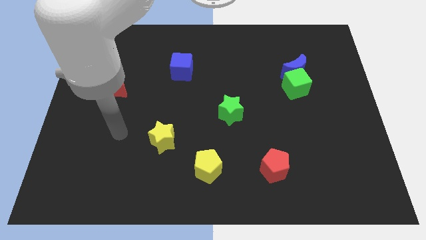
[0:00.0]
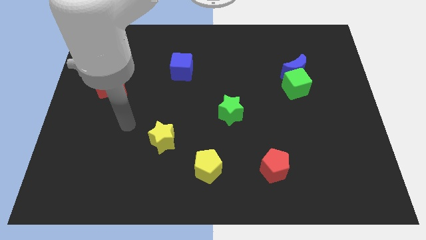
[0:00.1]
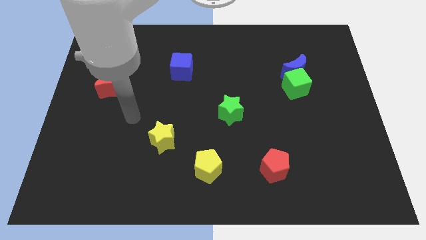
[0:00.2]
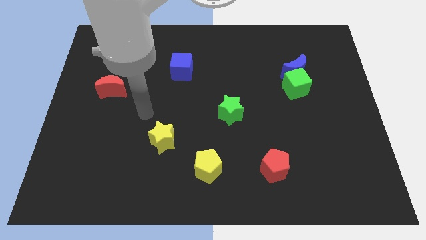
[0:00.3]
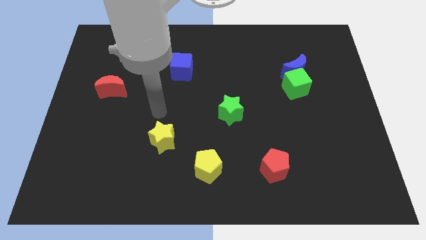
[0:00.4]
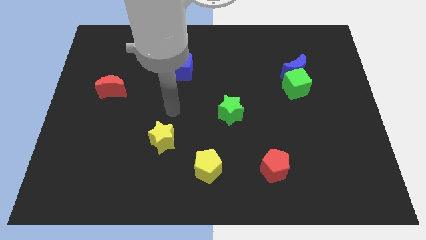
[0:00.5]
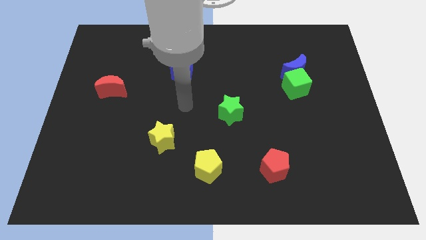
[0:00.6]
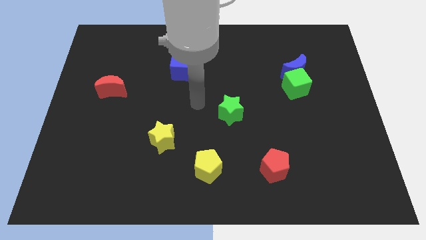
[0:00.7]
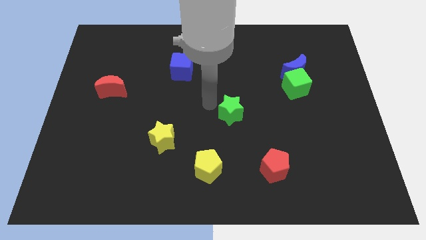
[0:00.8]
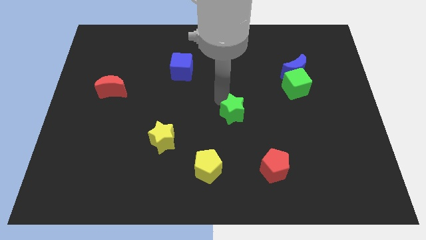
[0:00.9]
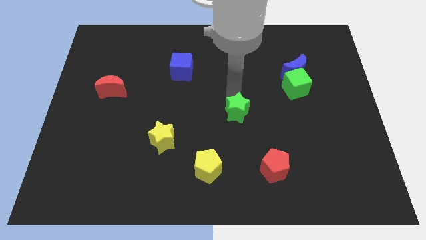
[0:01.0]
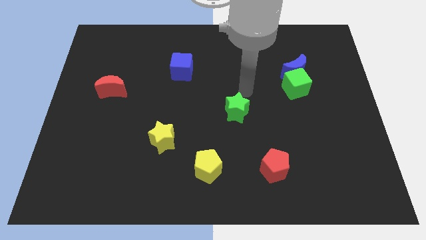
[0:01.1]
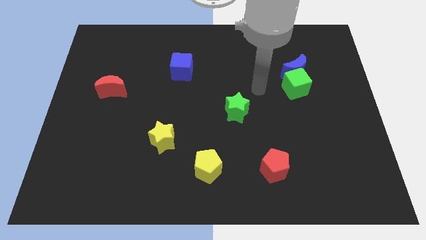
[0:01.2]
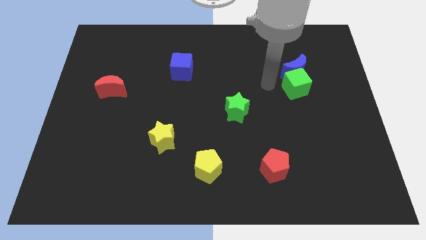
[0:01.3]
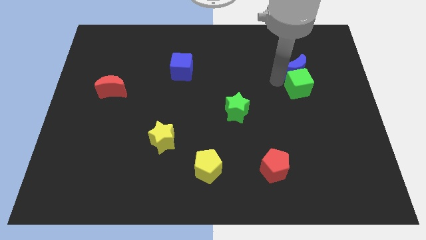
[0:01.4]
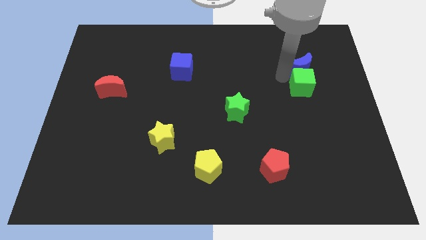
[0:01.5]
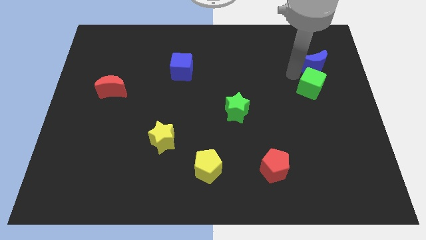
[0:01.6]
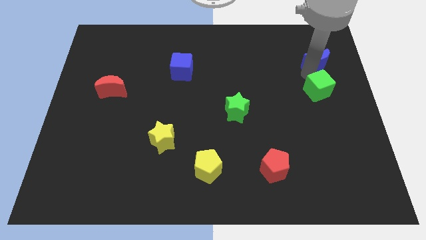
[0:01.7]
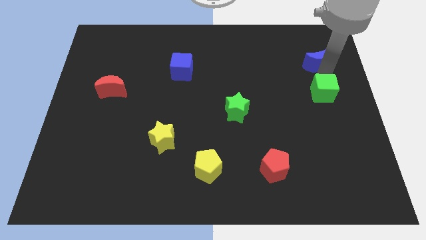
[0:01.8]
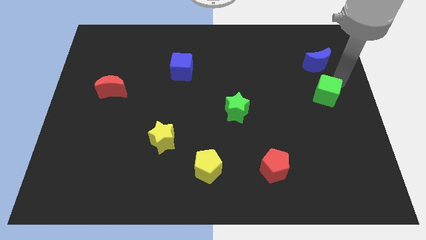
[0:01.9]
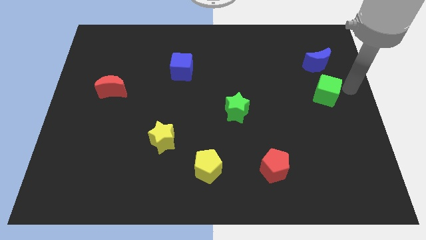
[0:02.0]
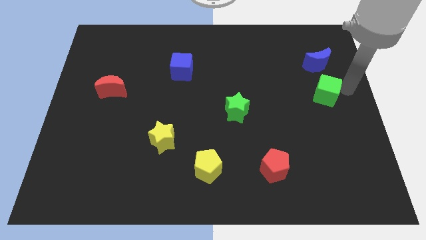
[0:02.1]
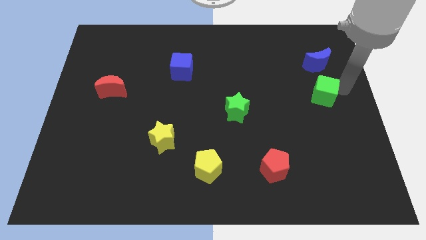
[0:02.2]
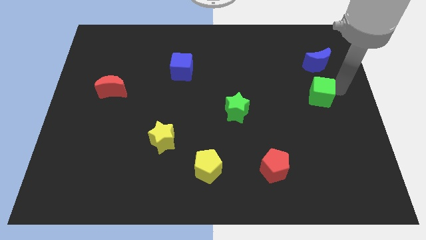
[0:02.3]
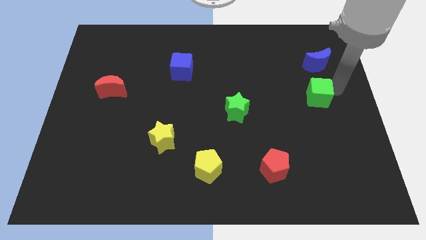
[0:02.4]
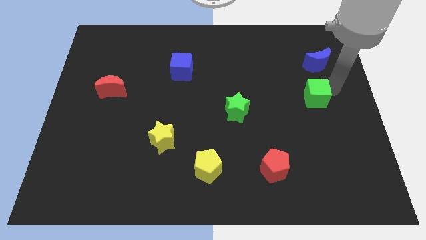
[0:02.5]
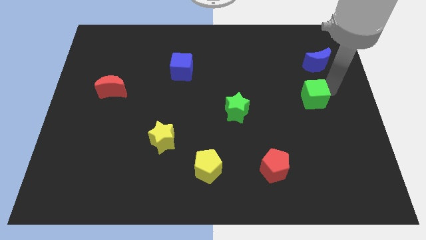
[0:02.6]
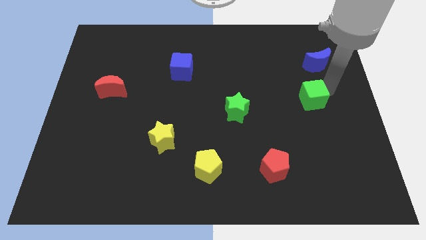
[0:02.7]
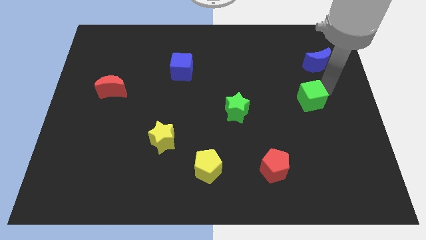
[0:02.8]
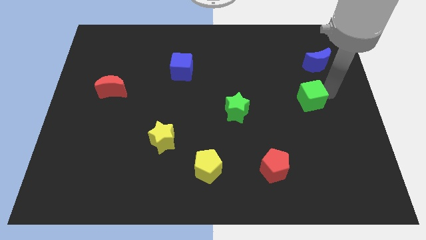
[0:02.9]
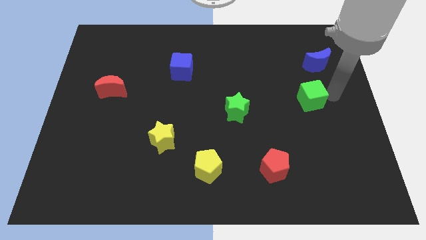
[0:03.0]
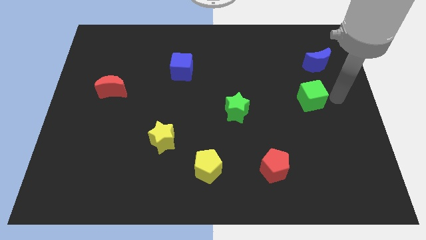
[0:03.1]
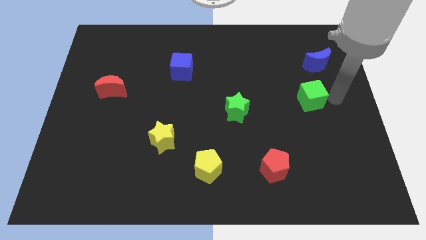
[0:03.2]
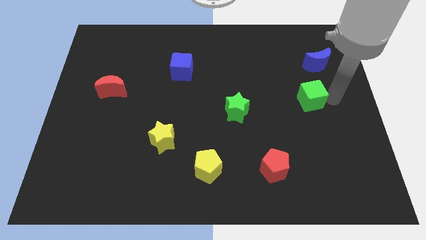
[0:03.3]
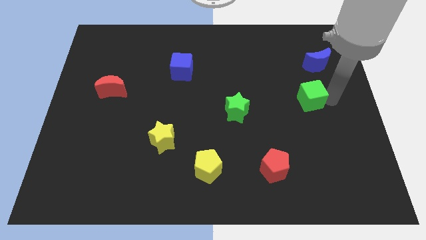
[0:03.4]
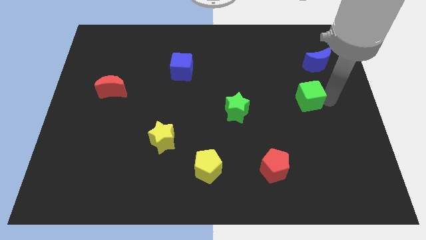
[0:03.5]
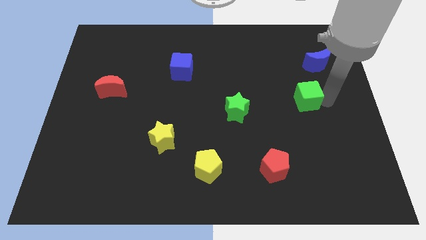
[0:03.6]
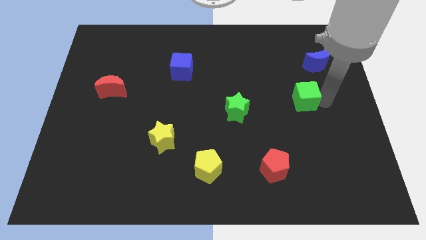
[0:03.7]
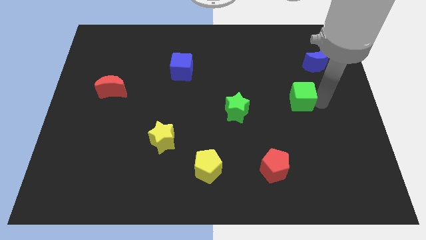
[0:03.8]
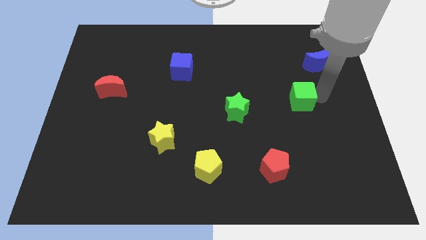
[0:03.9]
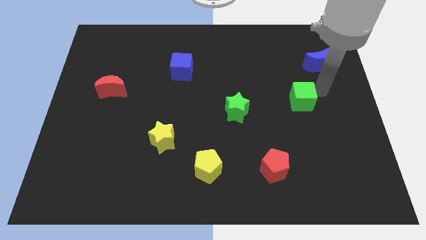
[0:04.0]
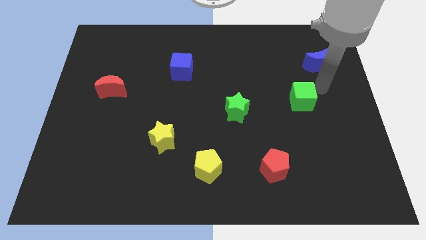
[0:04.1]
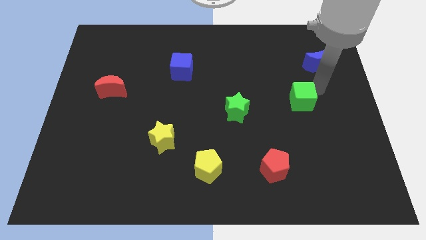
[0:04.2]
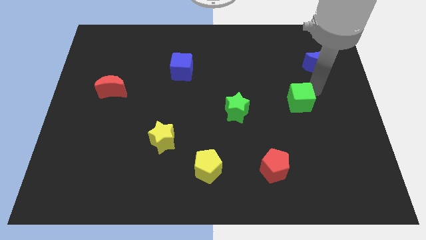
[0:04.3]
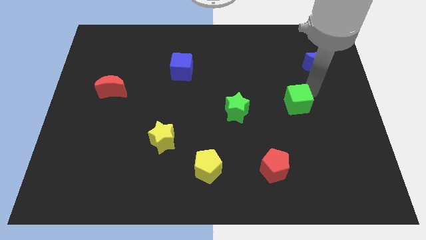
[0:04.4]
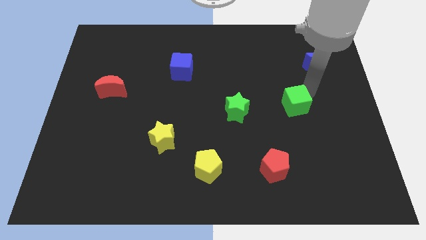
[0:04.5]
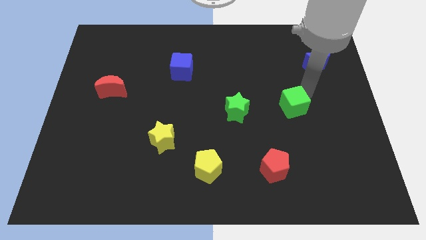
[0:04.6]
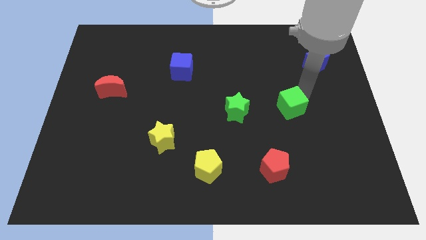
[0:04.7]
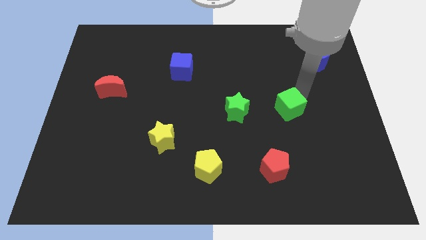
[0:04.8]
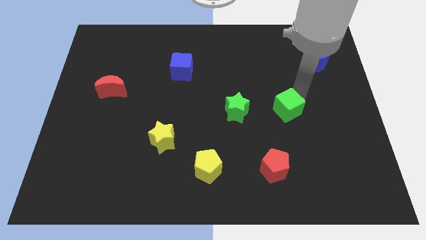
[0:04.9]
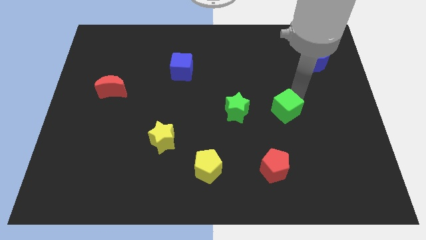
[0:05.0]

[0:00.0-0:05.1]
slightly move the green cube downwards and then left

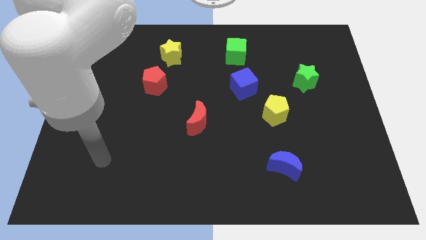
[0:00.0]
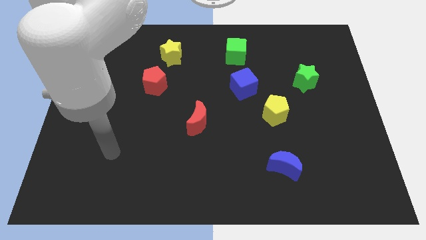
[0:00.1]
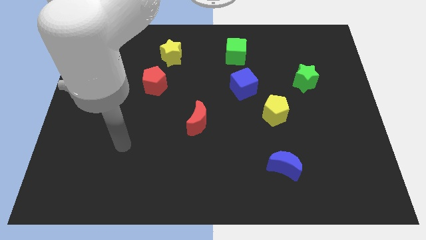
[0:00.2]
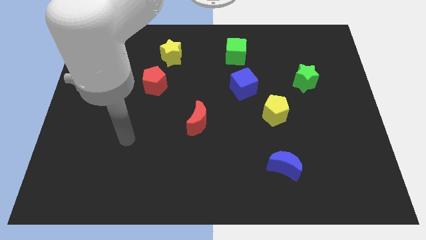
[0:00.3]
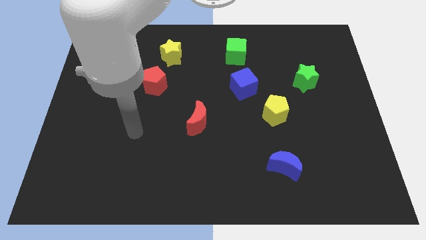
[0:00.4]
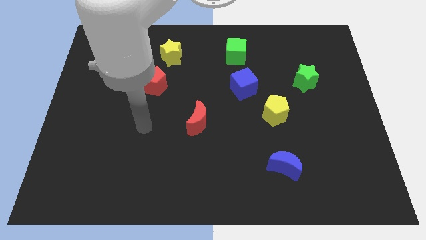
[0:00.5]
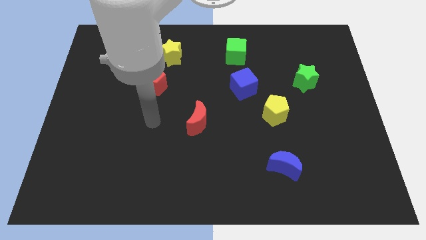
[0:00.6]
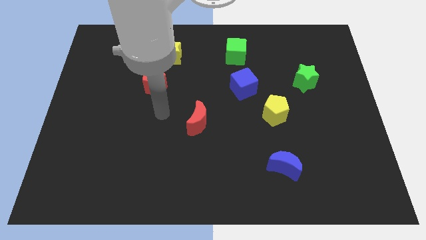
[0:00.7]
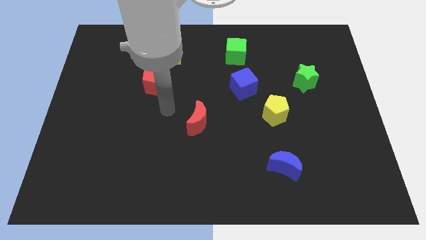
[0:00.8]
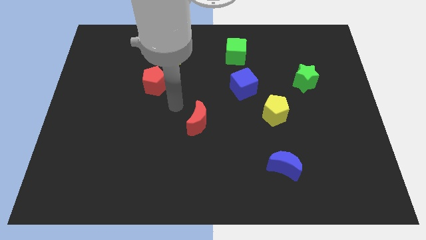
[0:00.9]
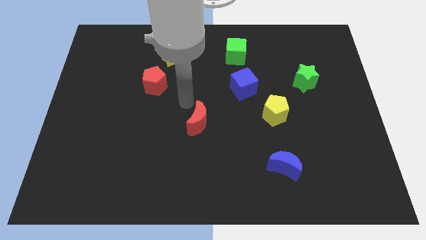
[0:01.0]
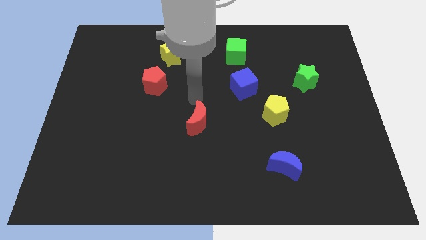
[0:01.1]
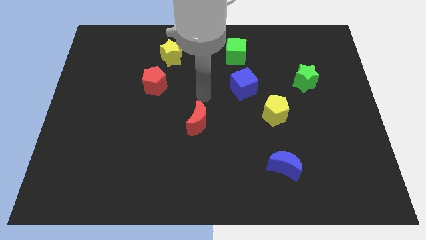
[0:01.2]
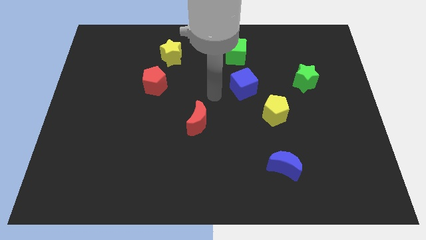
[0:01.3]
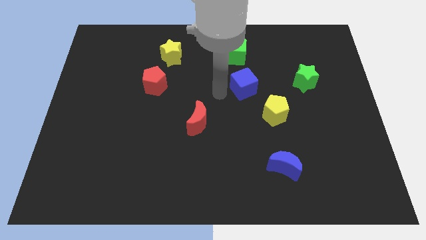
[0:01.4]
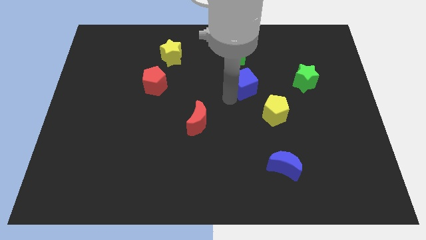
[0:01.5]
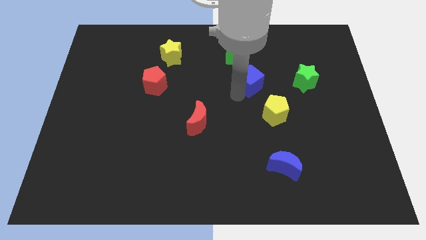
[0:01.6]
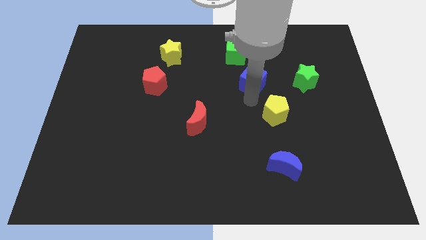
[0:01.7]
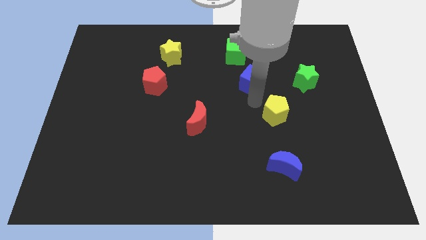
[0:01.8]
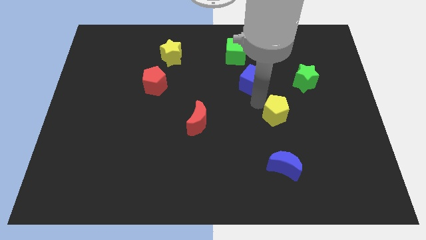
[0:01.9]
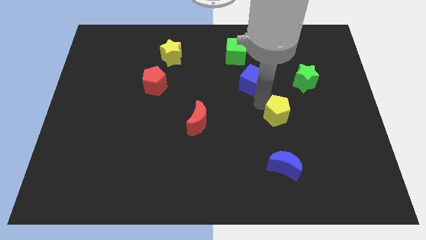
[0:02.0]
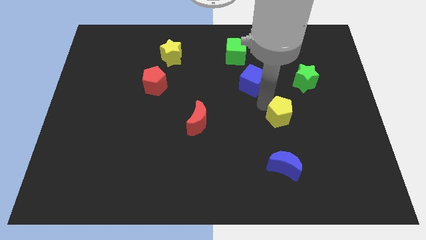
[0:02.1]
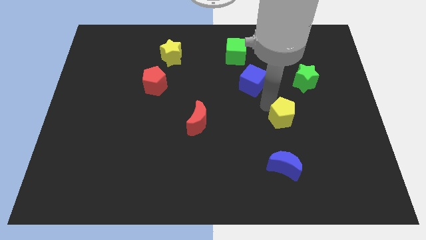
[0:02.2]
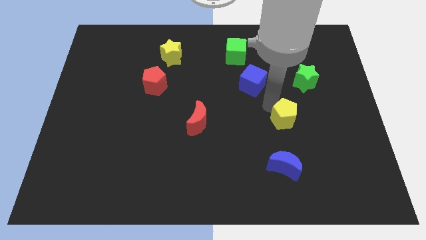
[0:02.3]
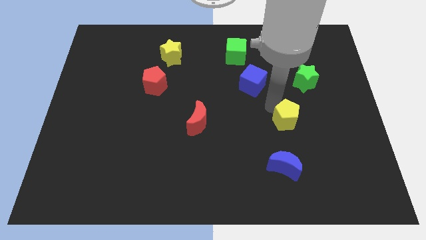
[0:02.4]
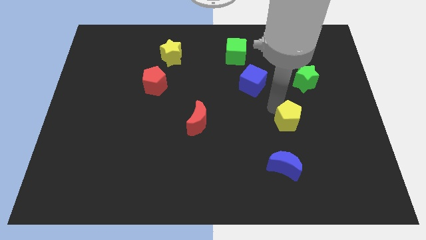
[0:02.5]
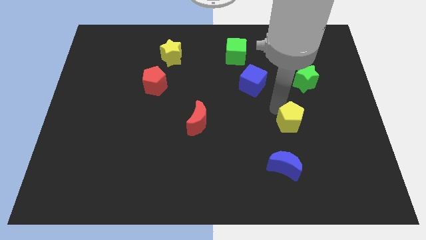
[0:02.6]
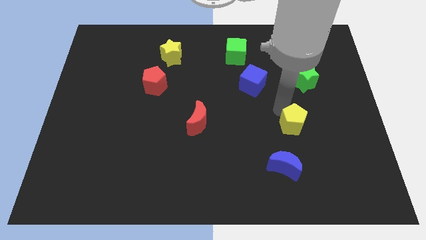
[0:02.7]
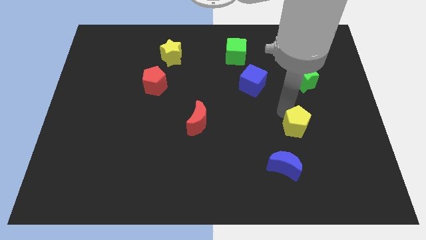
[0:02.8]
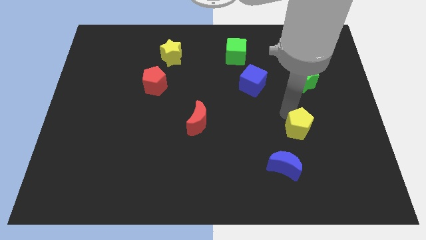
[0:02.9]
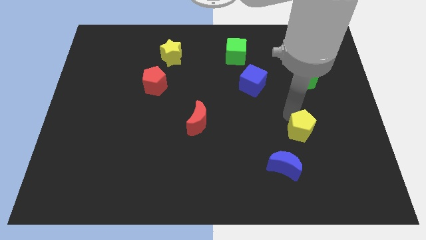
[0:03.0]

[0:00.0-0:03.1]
push the yellow pentagon a little bit diagonally down and to the right

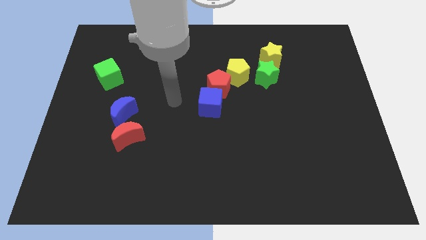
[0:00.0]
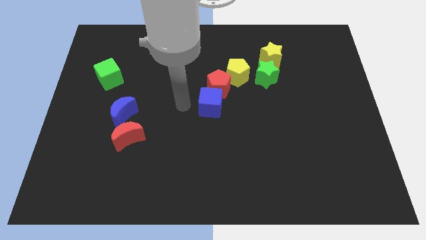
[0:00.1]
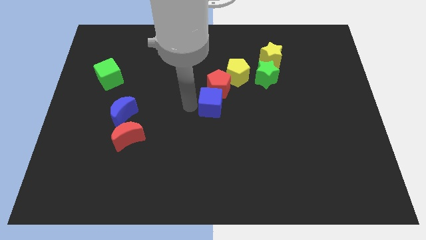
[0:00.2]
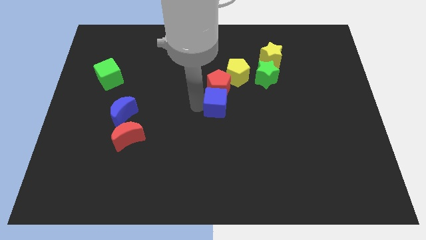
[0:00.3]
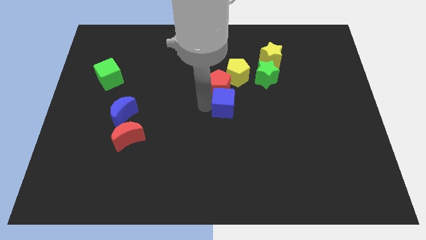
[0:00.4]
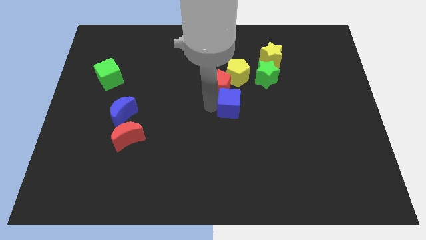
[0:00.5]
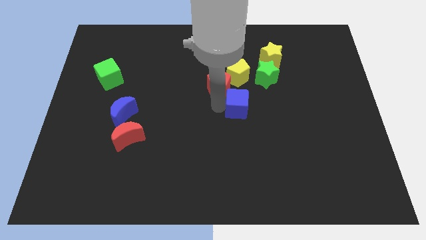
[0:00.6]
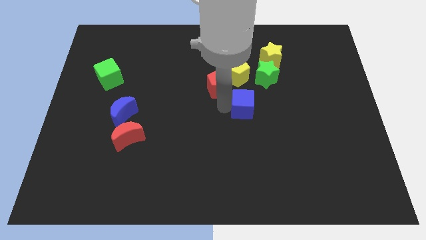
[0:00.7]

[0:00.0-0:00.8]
push the blue cube somewhat right
